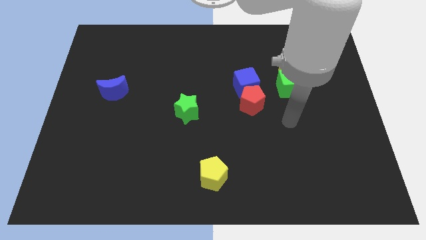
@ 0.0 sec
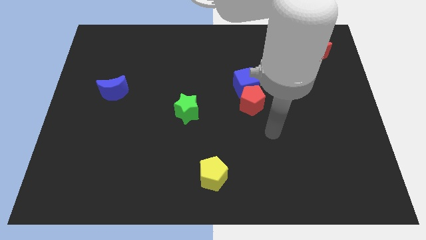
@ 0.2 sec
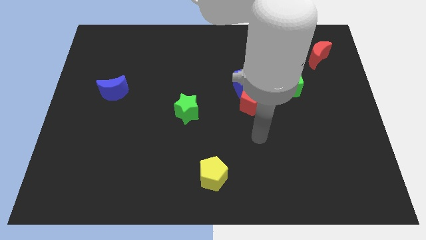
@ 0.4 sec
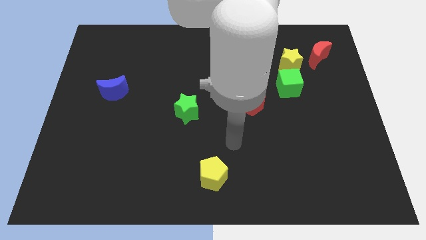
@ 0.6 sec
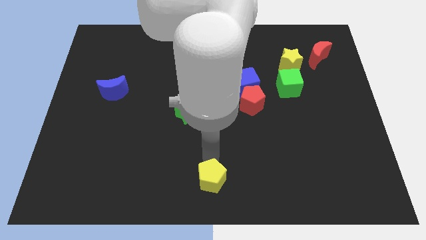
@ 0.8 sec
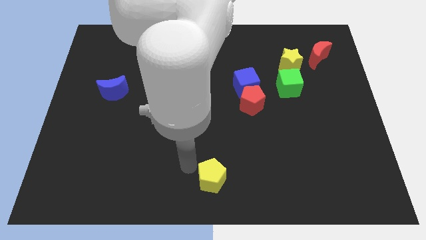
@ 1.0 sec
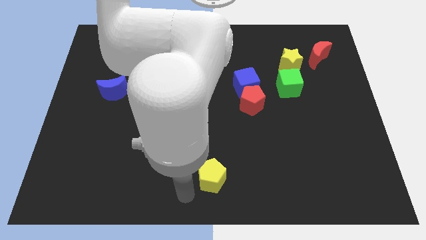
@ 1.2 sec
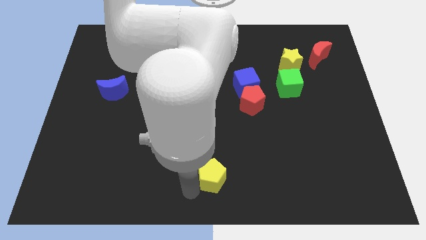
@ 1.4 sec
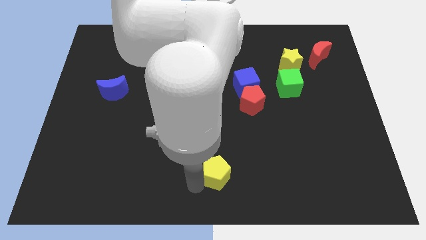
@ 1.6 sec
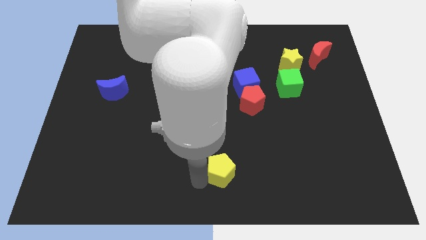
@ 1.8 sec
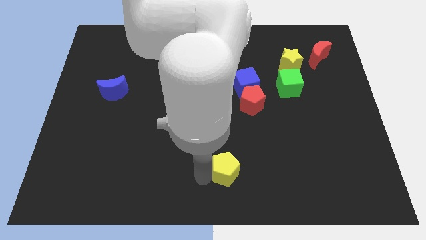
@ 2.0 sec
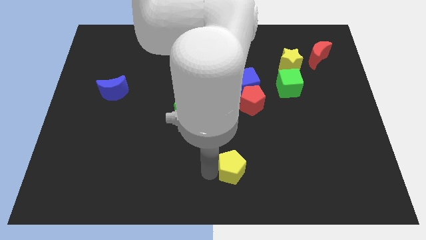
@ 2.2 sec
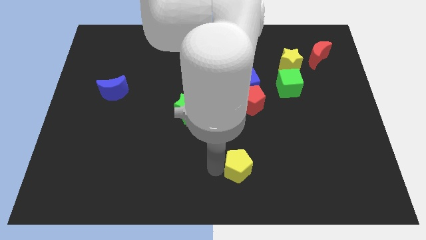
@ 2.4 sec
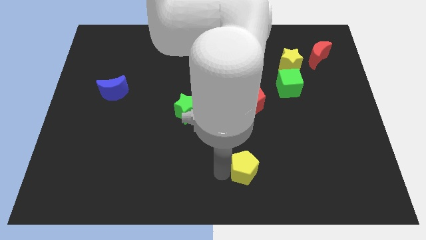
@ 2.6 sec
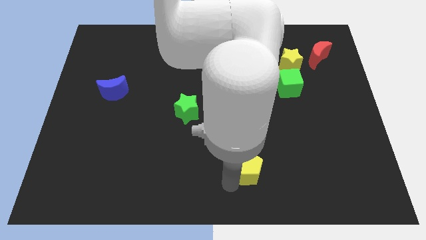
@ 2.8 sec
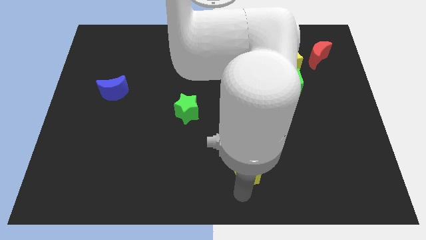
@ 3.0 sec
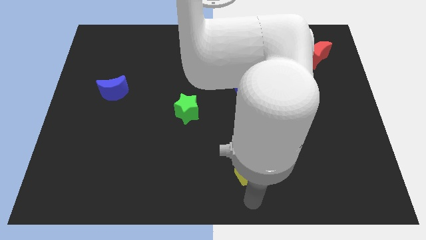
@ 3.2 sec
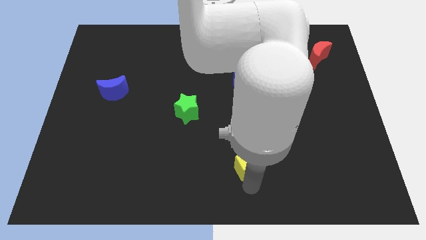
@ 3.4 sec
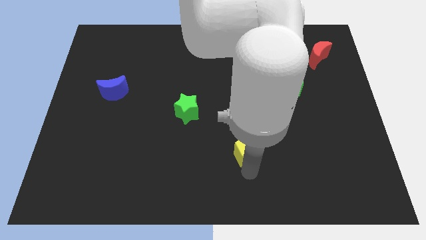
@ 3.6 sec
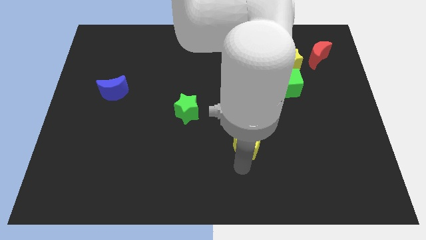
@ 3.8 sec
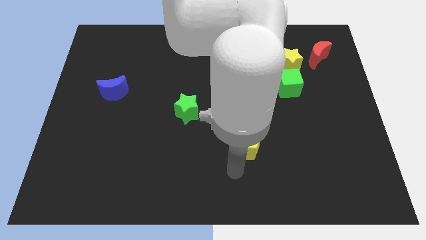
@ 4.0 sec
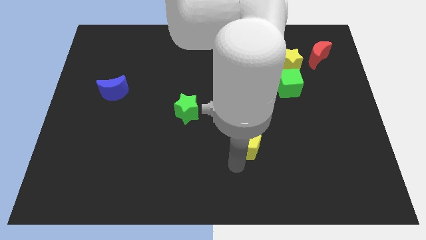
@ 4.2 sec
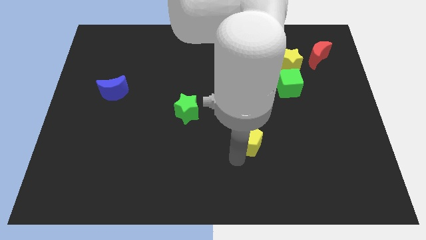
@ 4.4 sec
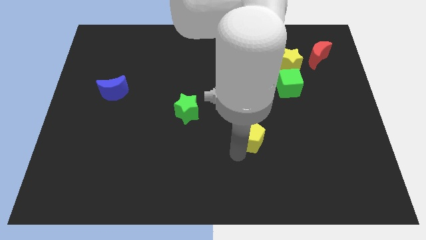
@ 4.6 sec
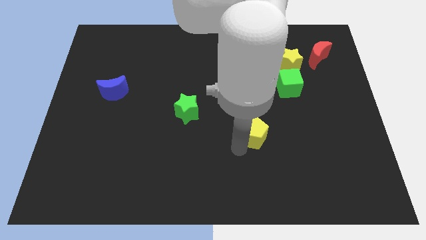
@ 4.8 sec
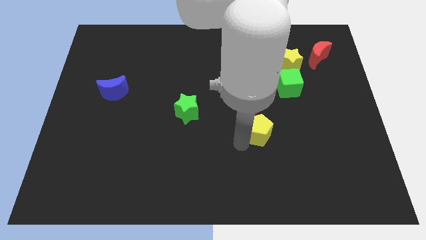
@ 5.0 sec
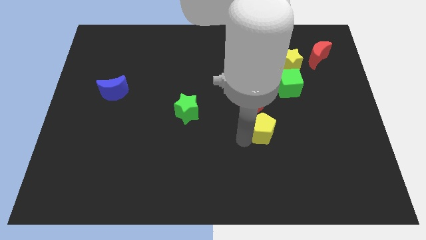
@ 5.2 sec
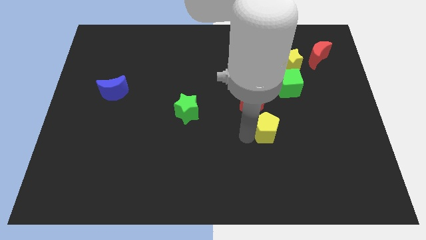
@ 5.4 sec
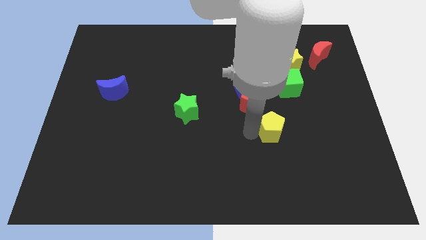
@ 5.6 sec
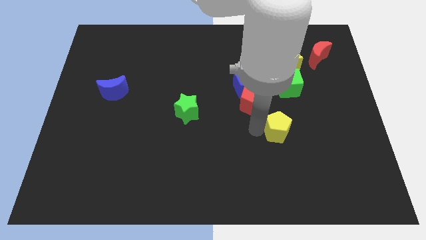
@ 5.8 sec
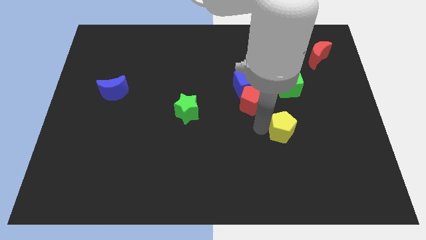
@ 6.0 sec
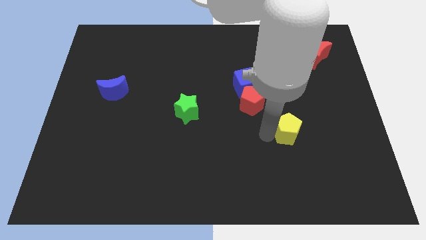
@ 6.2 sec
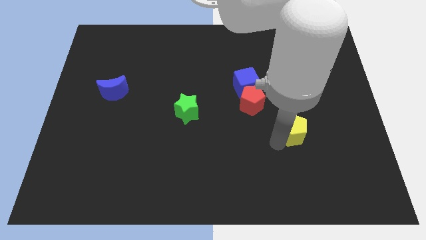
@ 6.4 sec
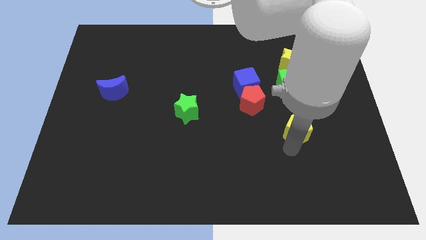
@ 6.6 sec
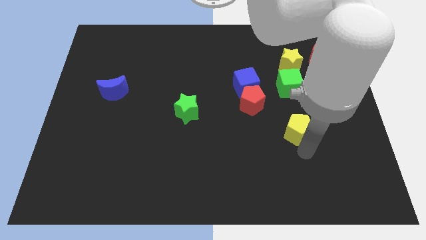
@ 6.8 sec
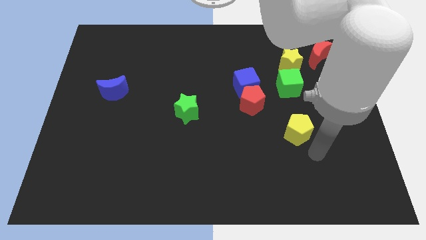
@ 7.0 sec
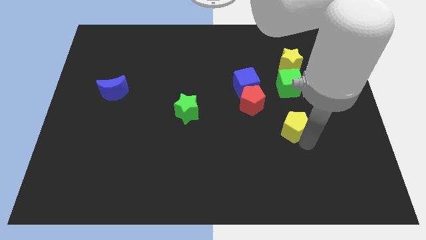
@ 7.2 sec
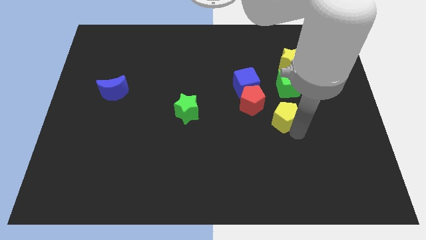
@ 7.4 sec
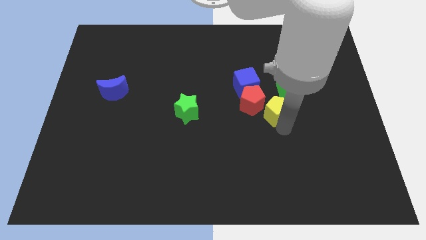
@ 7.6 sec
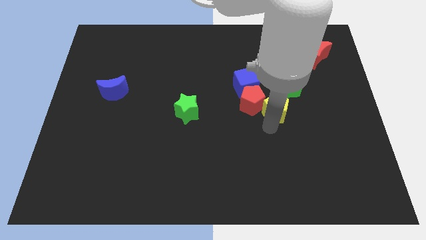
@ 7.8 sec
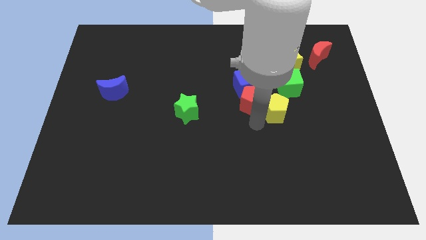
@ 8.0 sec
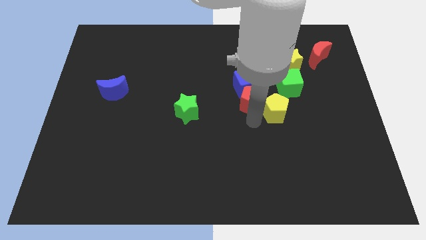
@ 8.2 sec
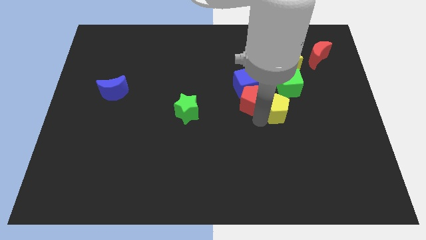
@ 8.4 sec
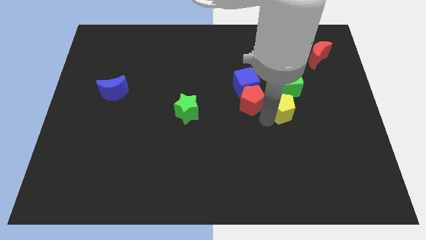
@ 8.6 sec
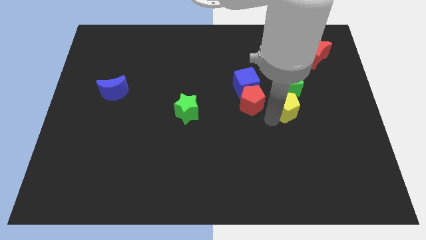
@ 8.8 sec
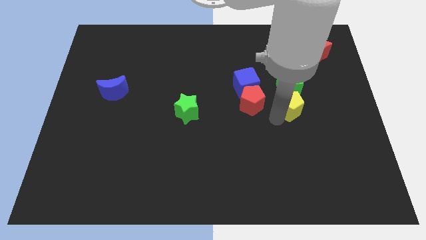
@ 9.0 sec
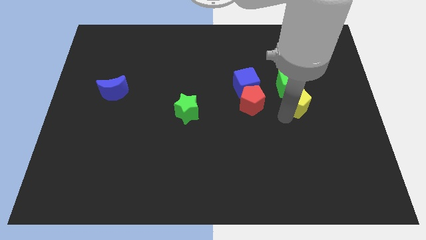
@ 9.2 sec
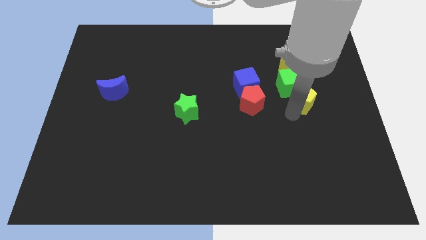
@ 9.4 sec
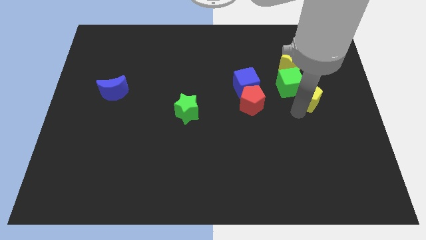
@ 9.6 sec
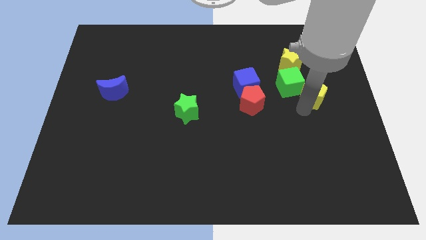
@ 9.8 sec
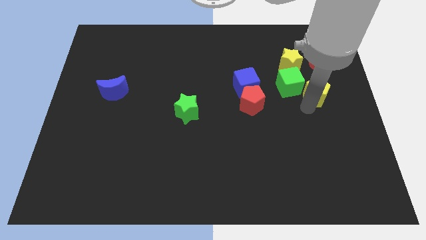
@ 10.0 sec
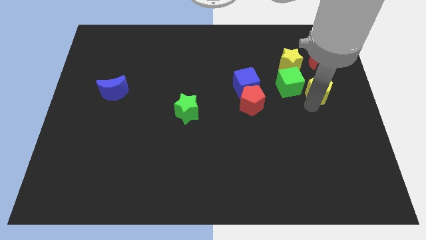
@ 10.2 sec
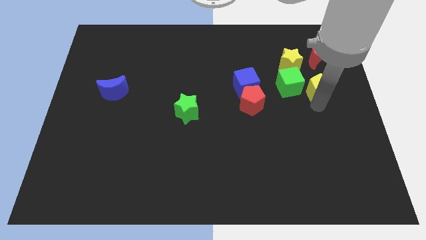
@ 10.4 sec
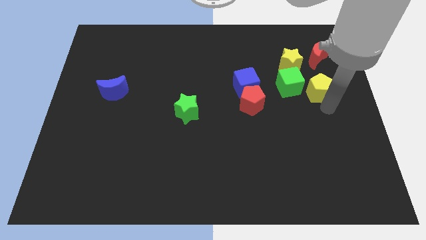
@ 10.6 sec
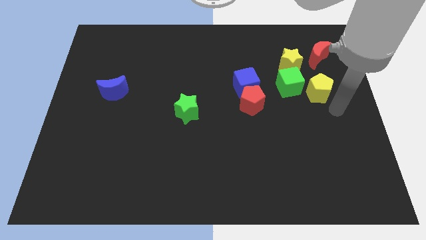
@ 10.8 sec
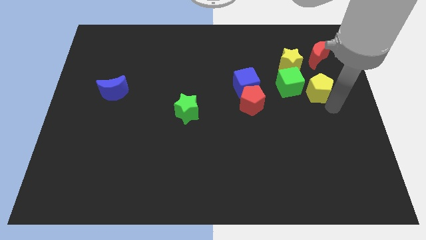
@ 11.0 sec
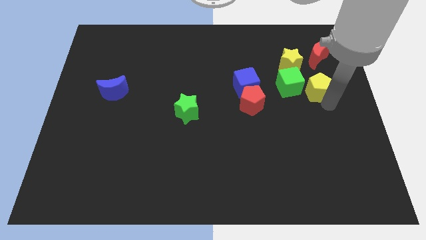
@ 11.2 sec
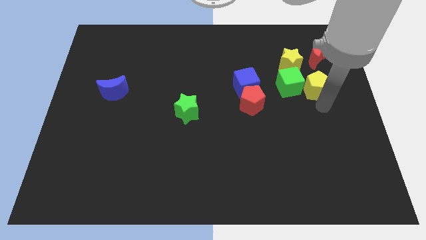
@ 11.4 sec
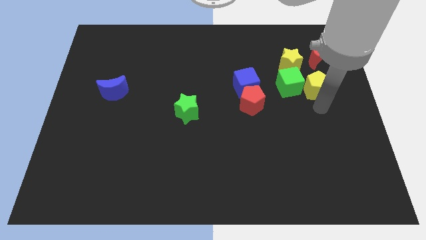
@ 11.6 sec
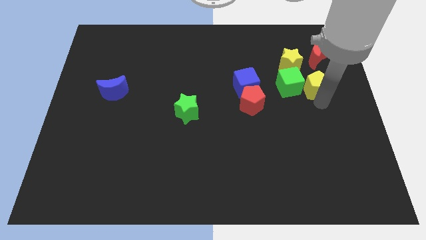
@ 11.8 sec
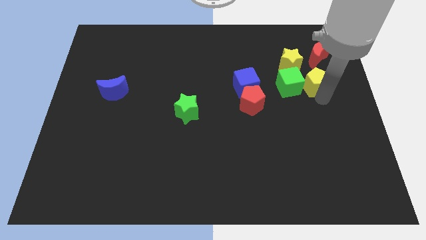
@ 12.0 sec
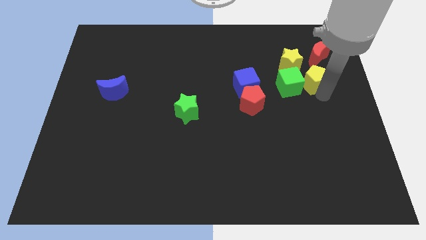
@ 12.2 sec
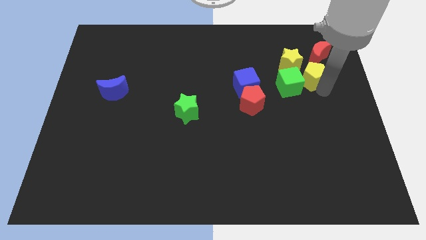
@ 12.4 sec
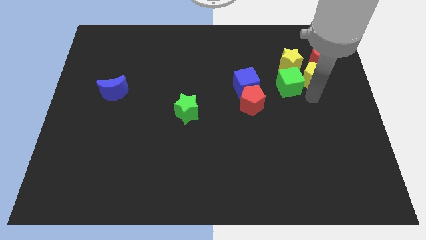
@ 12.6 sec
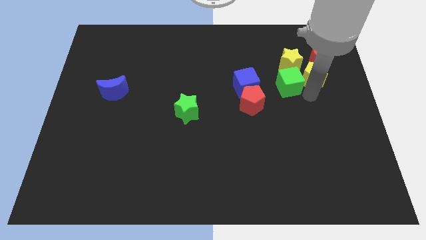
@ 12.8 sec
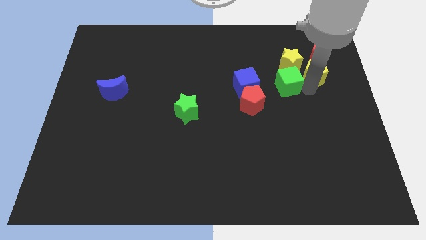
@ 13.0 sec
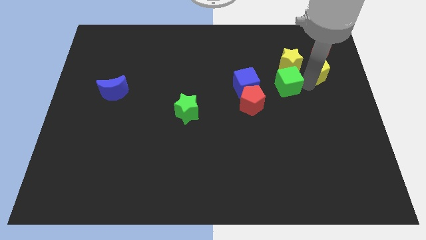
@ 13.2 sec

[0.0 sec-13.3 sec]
slide the yellow pentagon towards the red moon
